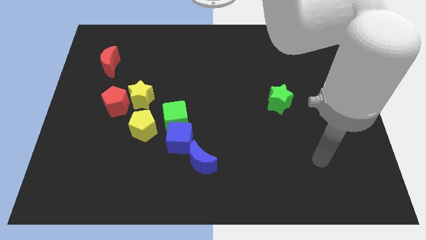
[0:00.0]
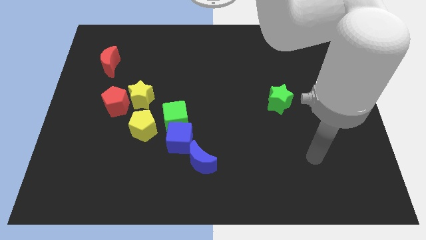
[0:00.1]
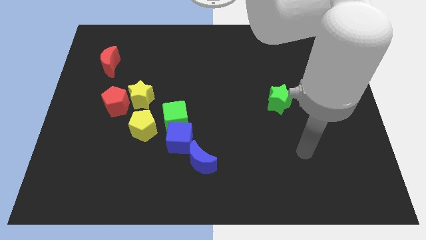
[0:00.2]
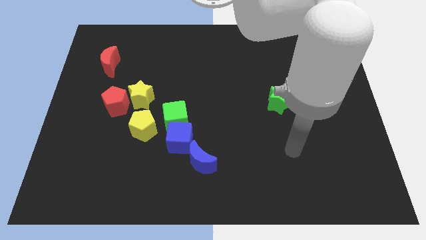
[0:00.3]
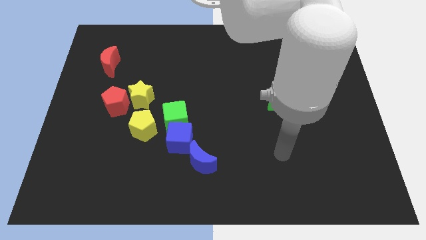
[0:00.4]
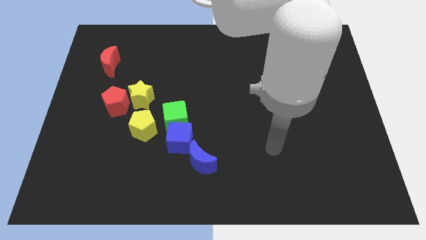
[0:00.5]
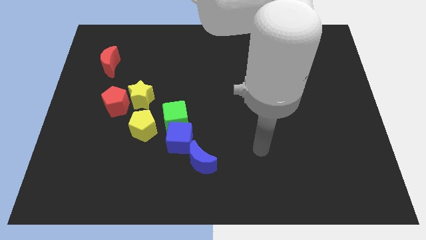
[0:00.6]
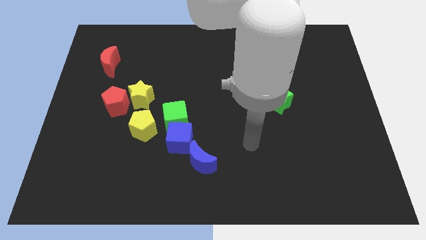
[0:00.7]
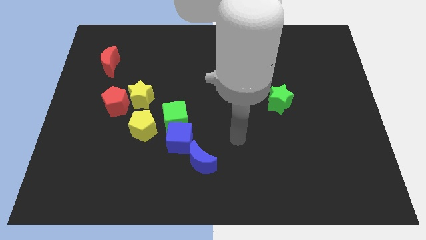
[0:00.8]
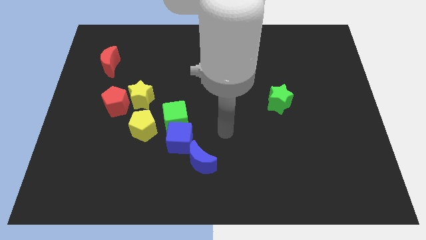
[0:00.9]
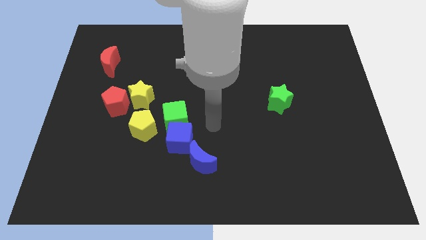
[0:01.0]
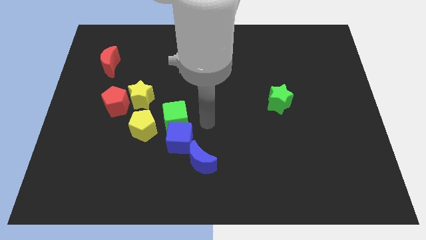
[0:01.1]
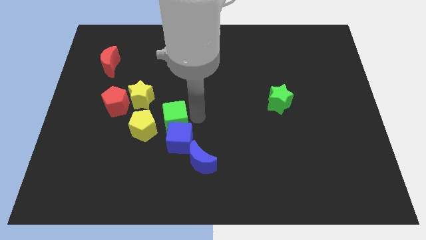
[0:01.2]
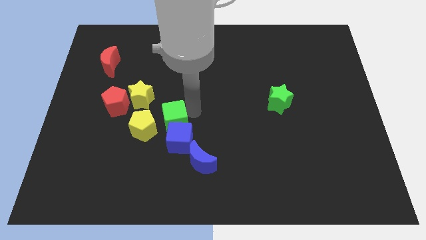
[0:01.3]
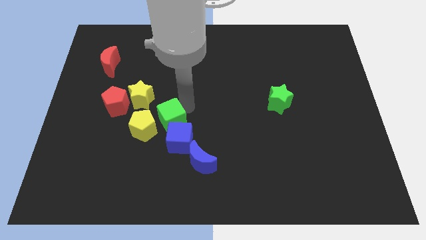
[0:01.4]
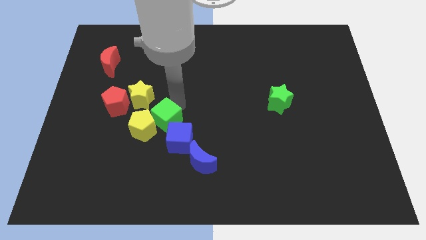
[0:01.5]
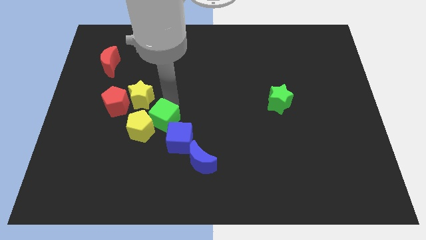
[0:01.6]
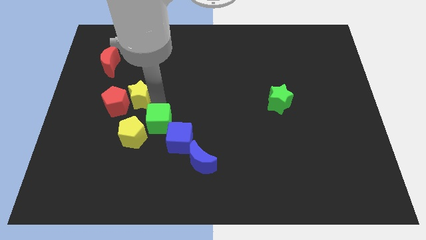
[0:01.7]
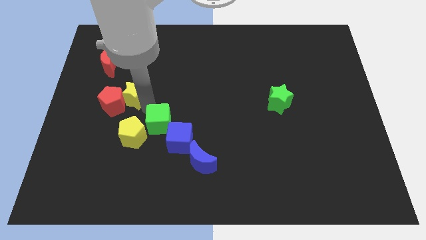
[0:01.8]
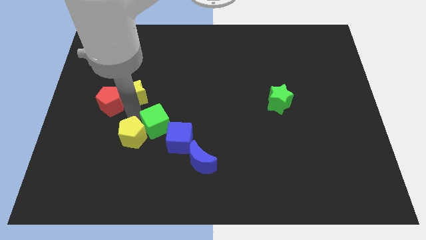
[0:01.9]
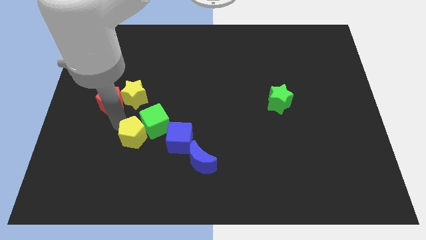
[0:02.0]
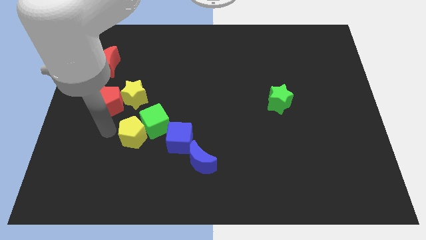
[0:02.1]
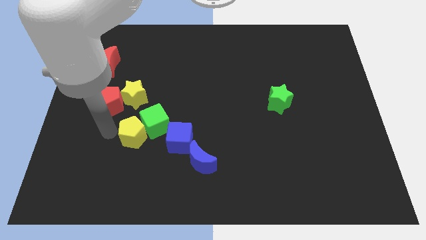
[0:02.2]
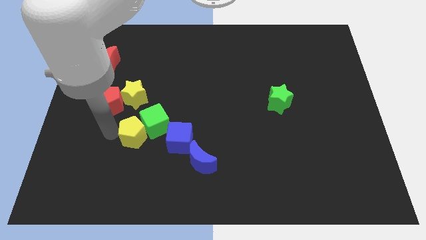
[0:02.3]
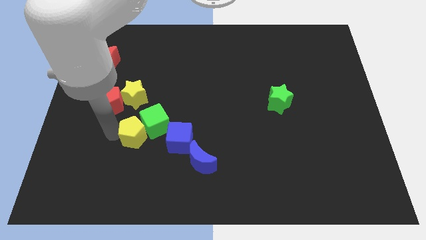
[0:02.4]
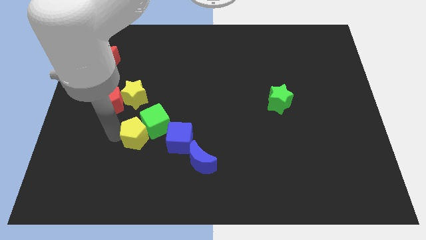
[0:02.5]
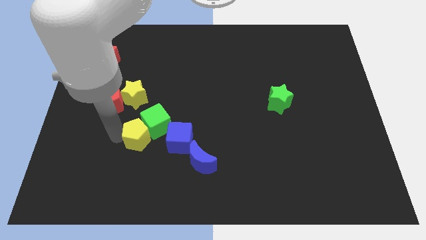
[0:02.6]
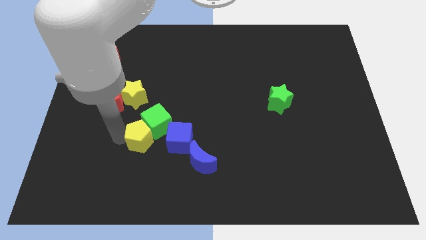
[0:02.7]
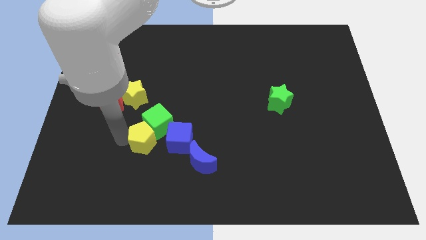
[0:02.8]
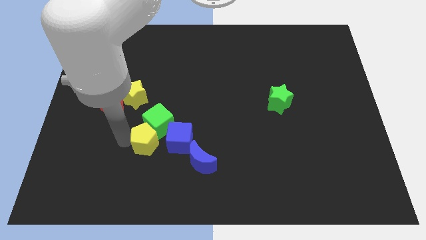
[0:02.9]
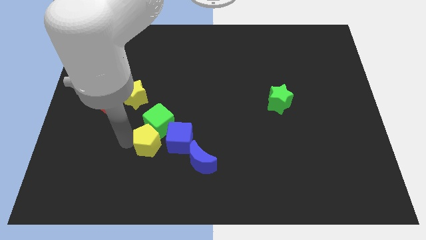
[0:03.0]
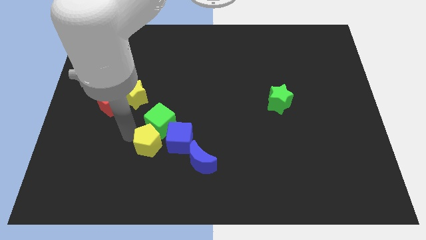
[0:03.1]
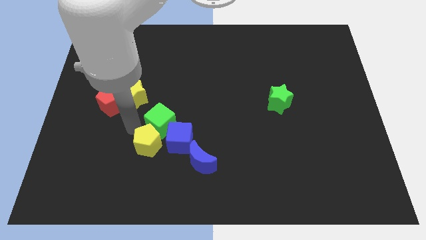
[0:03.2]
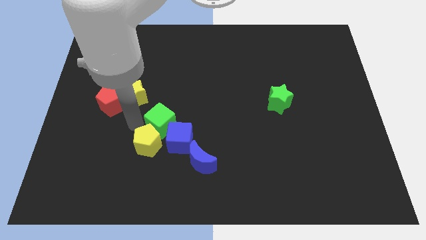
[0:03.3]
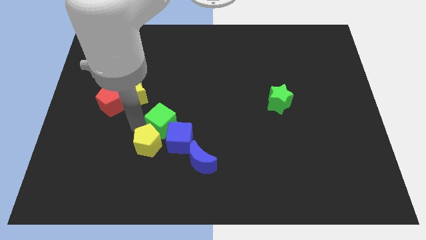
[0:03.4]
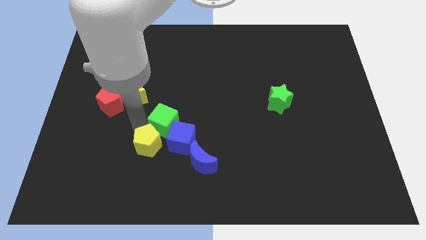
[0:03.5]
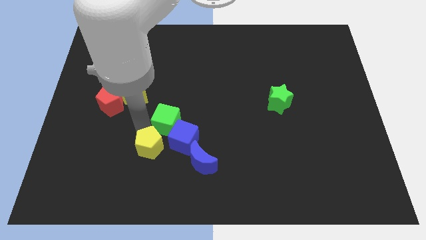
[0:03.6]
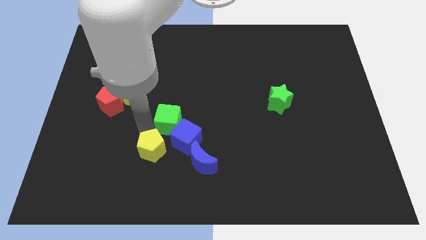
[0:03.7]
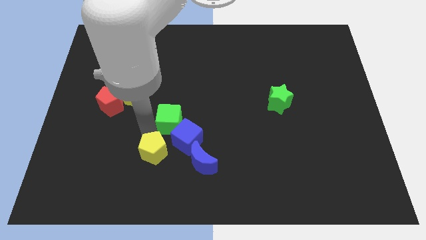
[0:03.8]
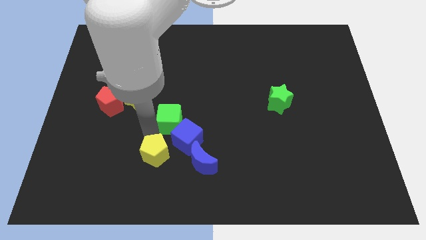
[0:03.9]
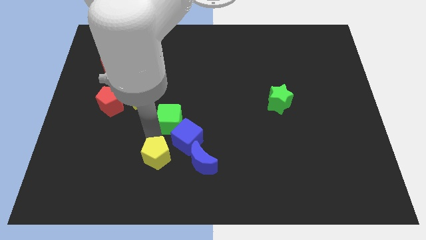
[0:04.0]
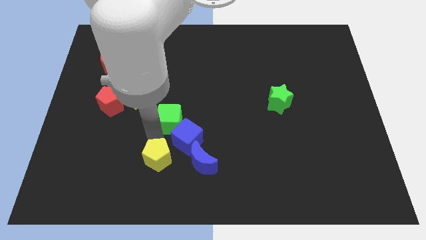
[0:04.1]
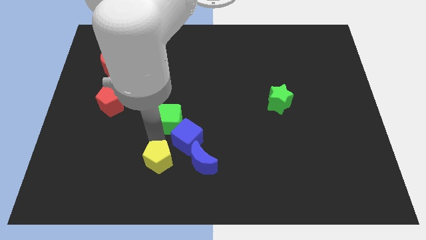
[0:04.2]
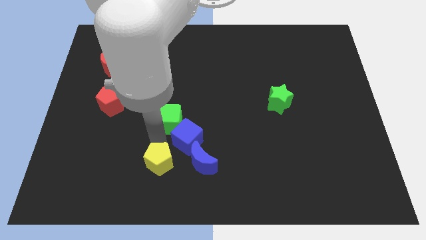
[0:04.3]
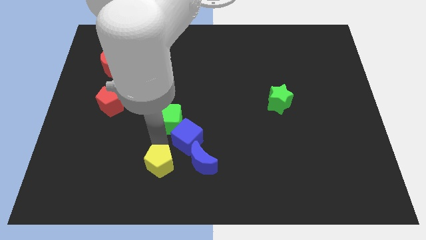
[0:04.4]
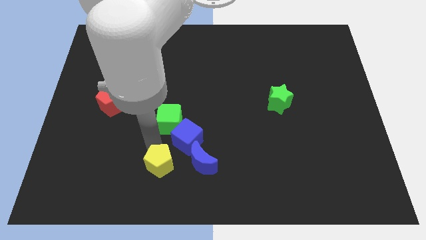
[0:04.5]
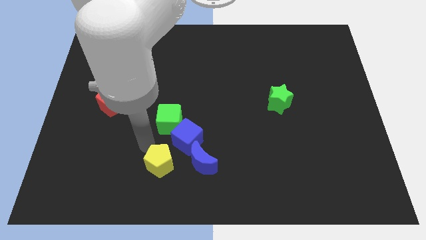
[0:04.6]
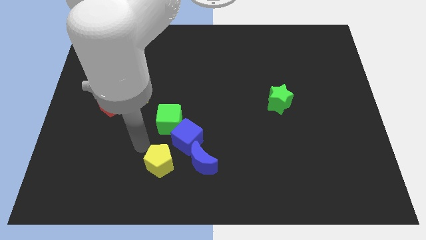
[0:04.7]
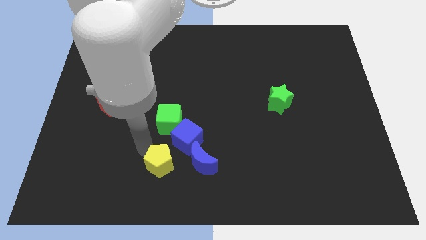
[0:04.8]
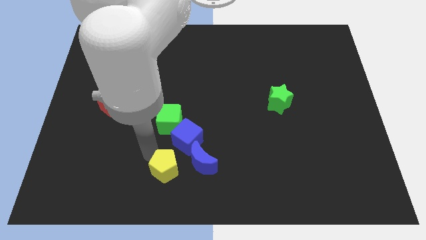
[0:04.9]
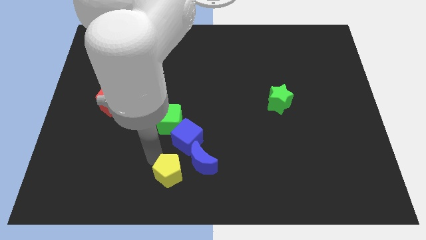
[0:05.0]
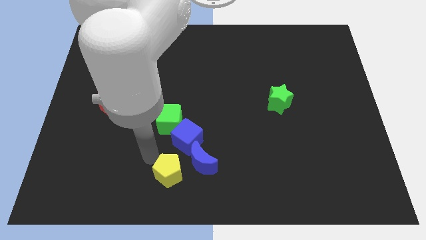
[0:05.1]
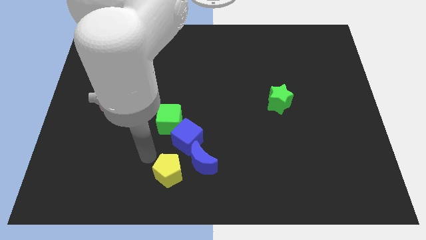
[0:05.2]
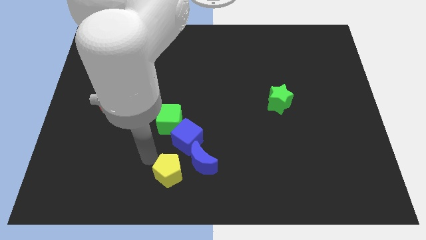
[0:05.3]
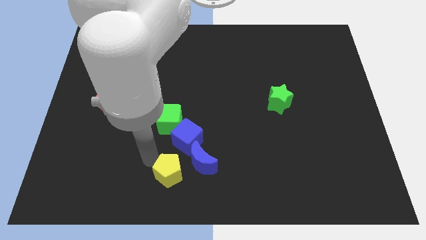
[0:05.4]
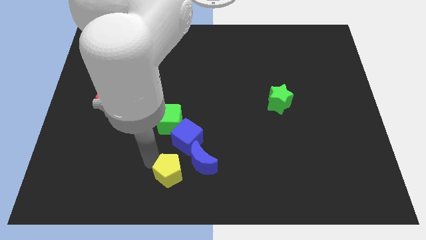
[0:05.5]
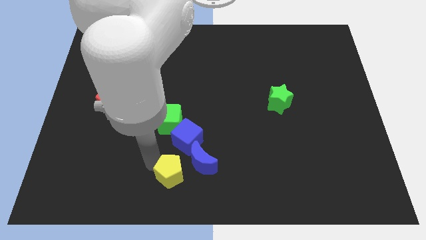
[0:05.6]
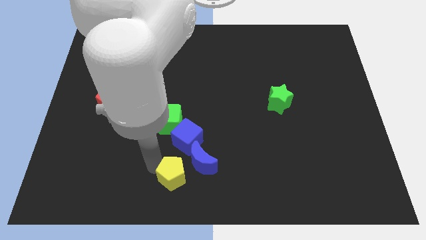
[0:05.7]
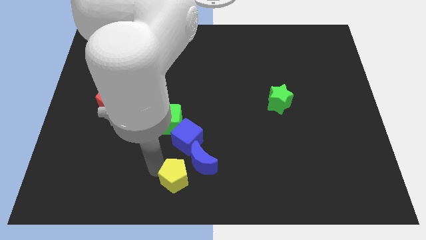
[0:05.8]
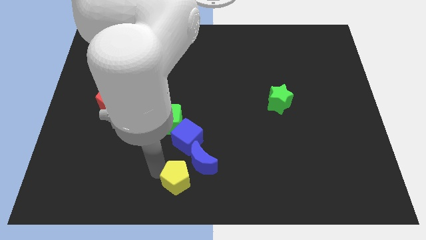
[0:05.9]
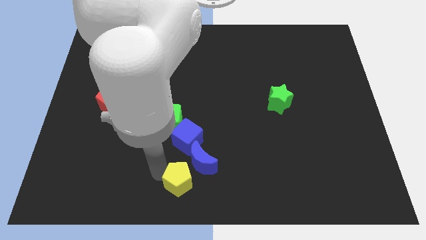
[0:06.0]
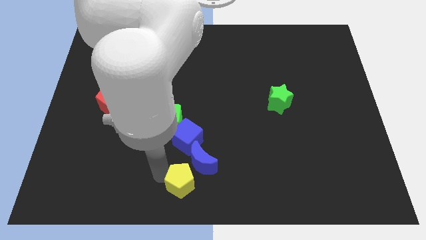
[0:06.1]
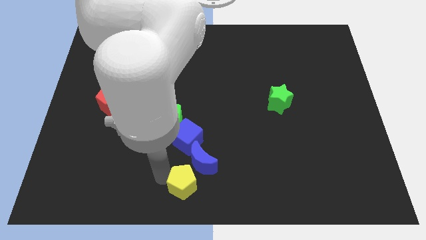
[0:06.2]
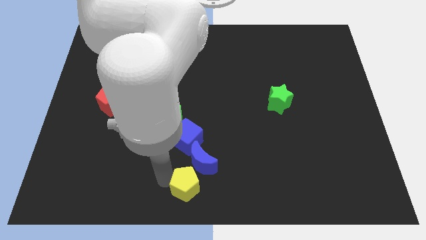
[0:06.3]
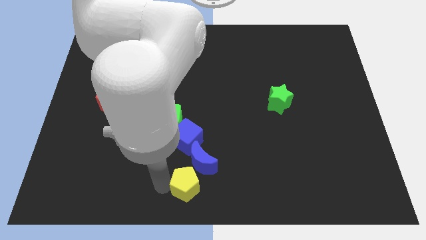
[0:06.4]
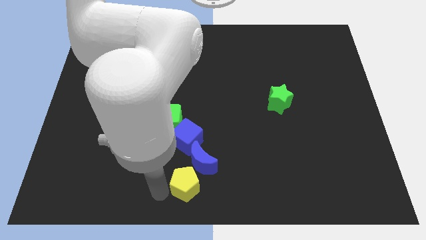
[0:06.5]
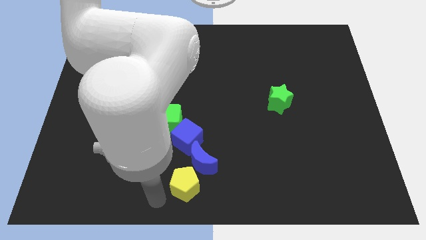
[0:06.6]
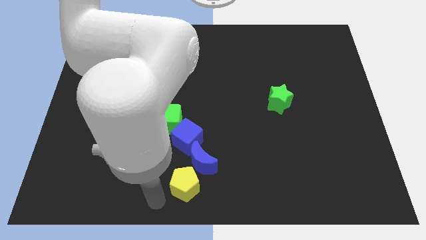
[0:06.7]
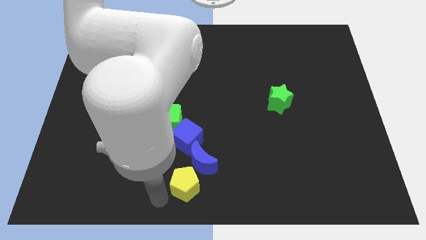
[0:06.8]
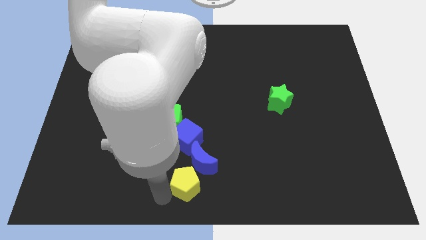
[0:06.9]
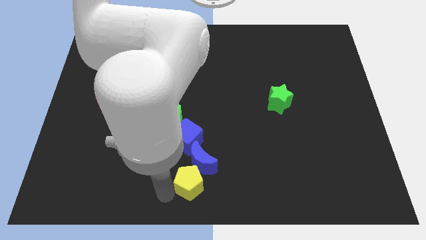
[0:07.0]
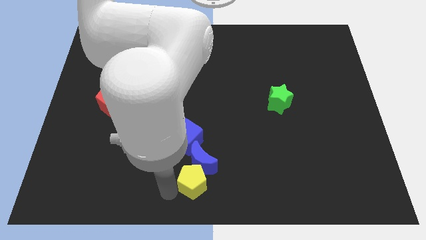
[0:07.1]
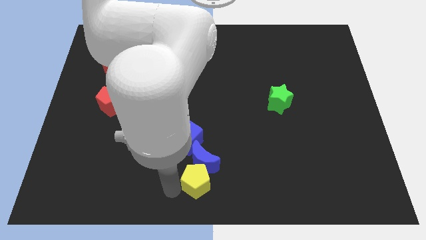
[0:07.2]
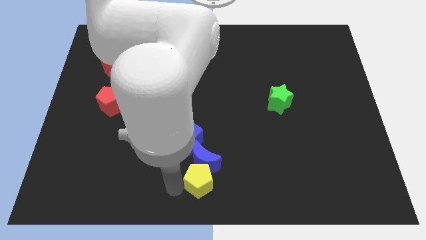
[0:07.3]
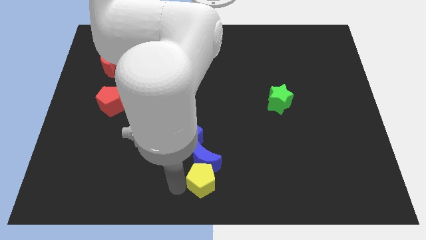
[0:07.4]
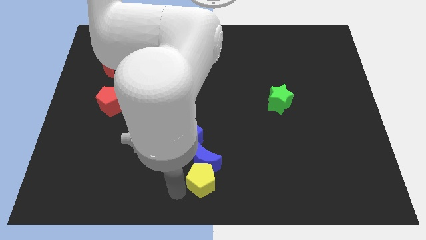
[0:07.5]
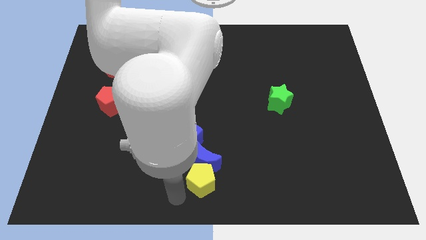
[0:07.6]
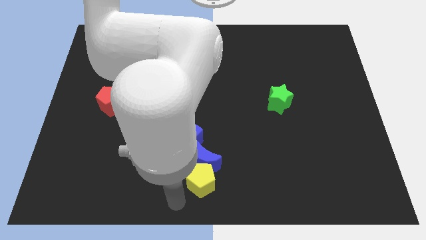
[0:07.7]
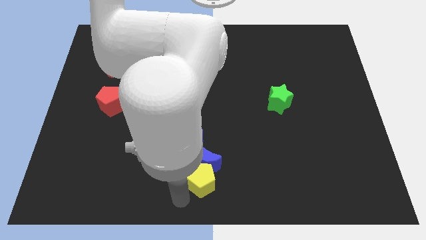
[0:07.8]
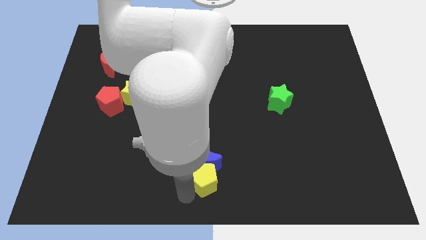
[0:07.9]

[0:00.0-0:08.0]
put the yellow pentagon to the bottom right of the blue cube
